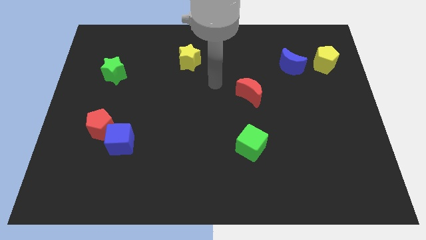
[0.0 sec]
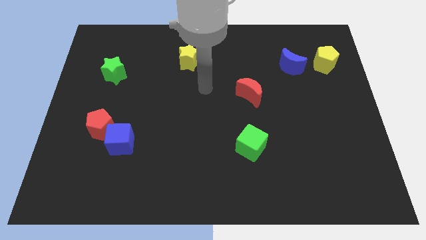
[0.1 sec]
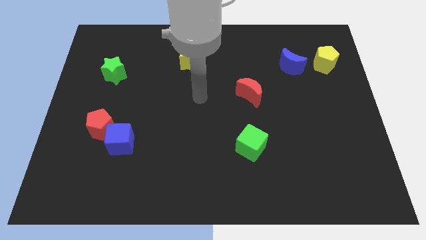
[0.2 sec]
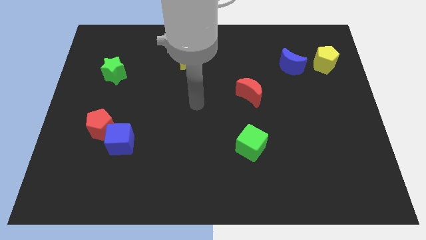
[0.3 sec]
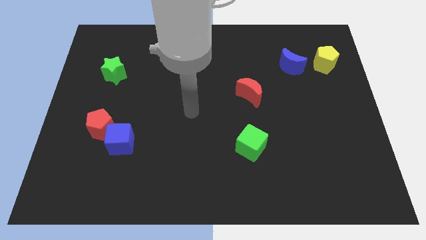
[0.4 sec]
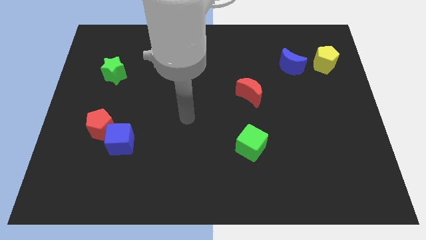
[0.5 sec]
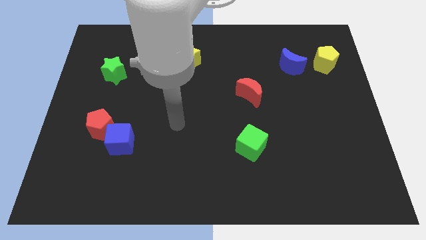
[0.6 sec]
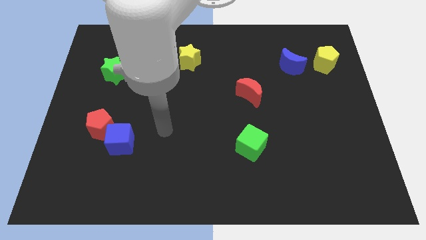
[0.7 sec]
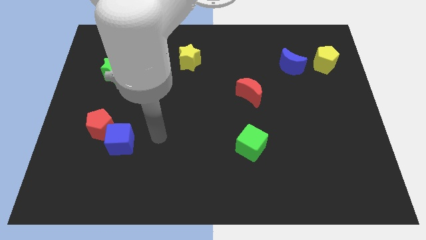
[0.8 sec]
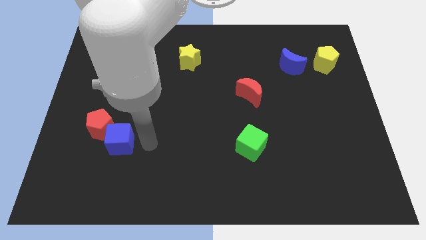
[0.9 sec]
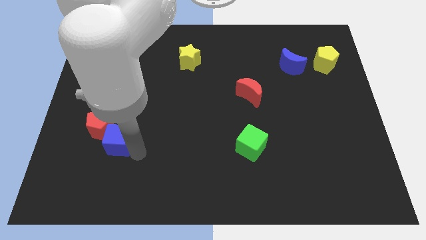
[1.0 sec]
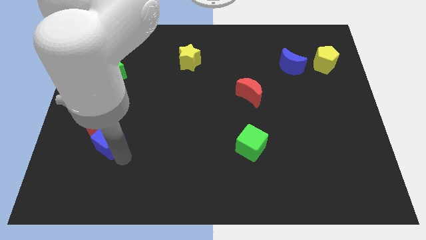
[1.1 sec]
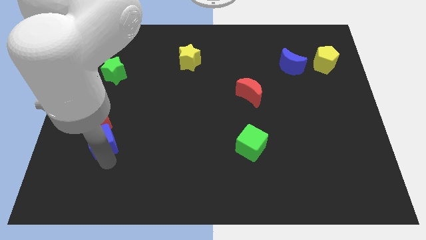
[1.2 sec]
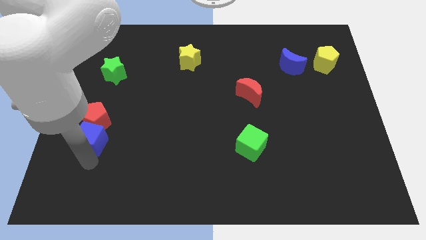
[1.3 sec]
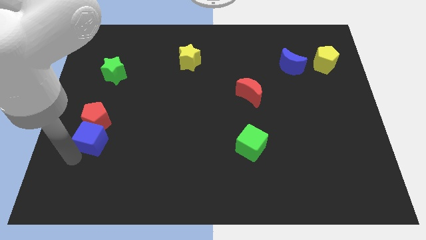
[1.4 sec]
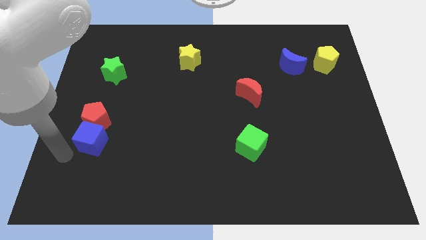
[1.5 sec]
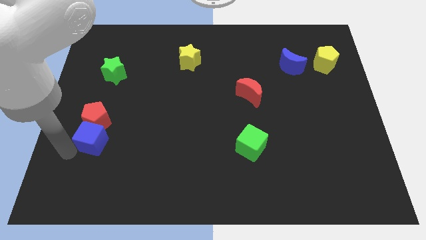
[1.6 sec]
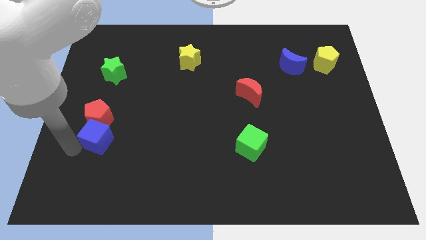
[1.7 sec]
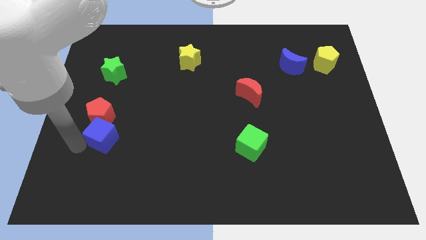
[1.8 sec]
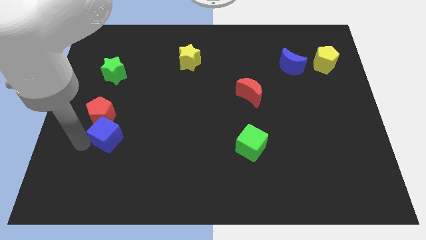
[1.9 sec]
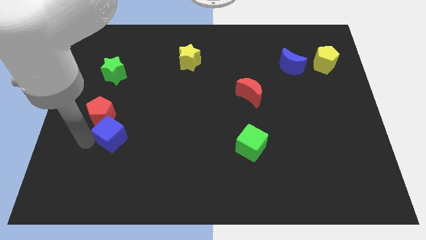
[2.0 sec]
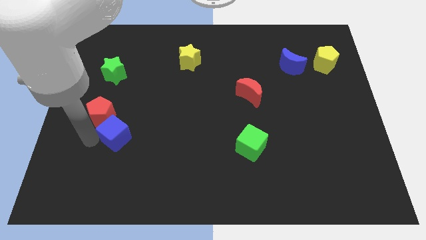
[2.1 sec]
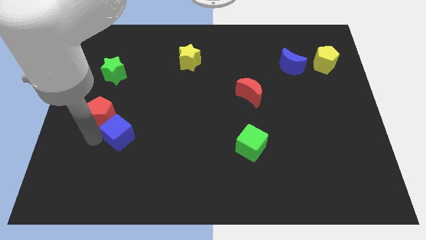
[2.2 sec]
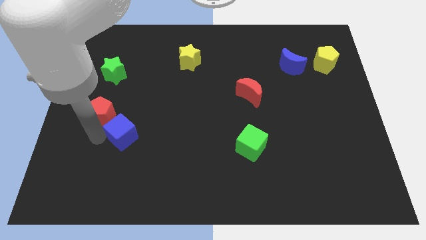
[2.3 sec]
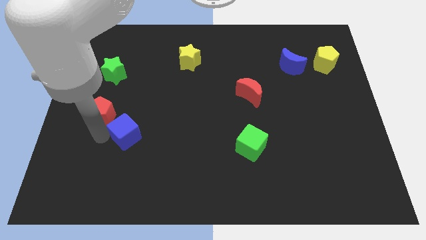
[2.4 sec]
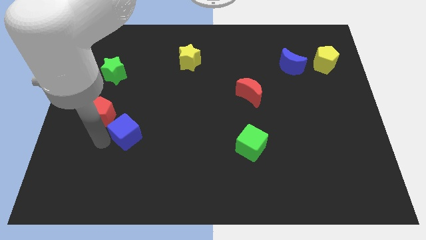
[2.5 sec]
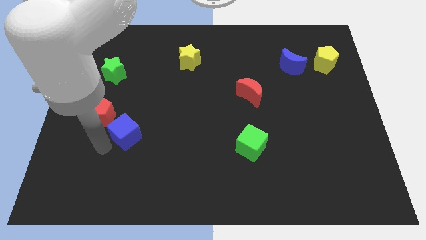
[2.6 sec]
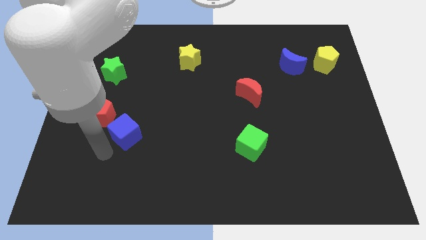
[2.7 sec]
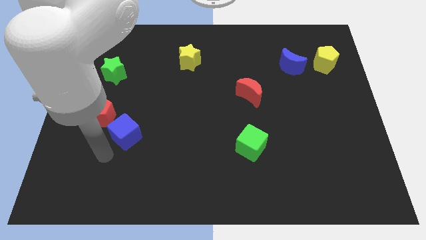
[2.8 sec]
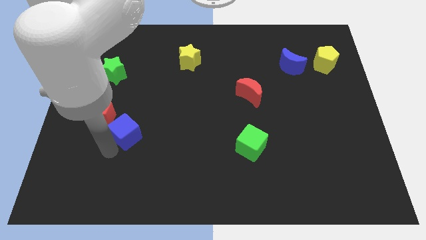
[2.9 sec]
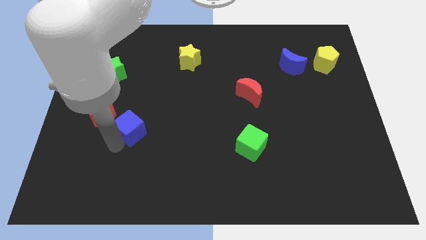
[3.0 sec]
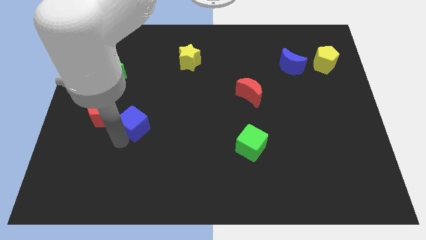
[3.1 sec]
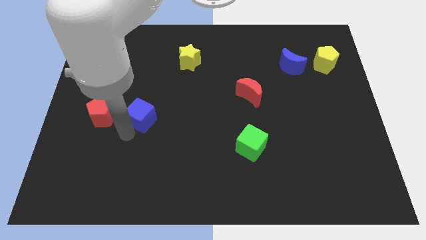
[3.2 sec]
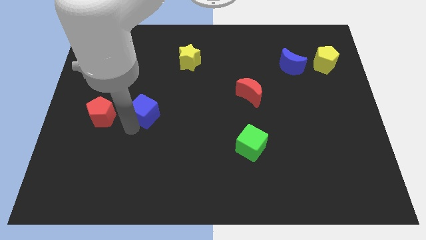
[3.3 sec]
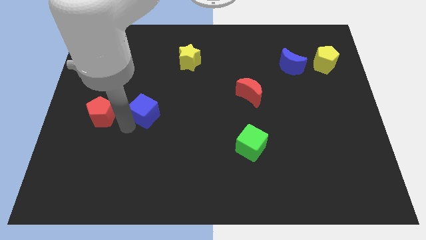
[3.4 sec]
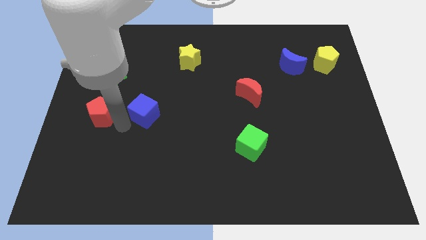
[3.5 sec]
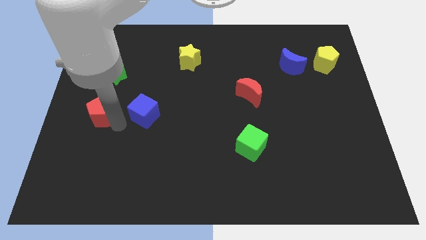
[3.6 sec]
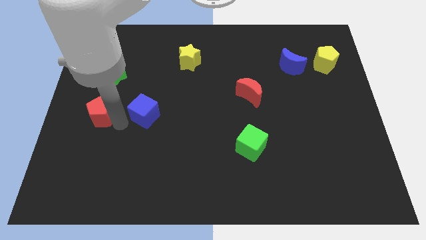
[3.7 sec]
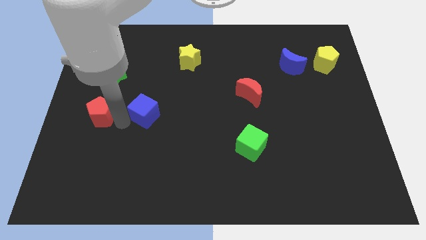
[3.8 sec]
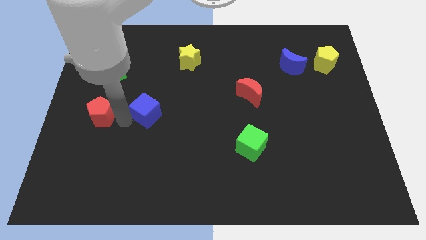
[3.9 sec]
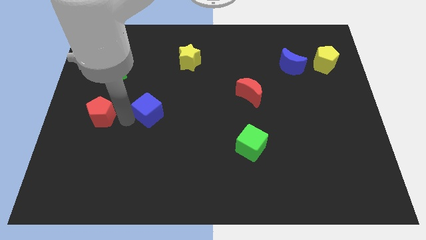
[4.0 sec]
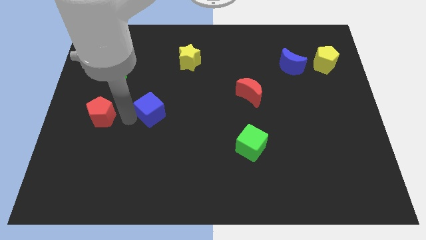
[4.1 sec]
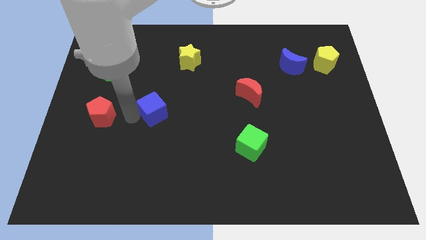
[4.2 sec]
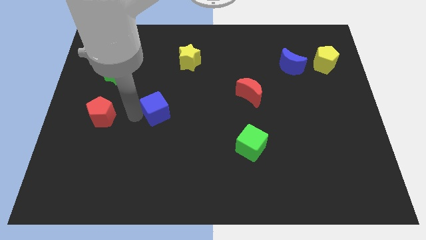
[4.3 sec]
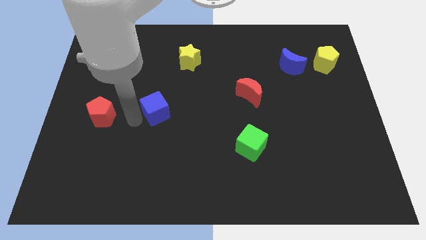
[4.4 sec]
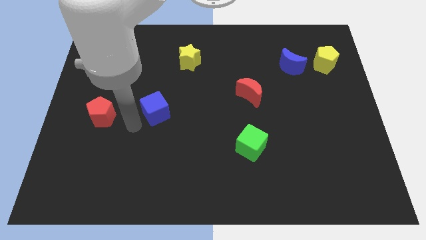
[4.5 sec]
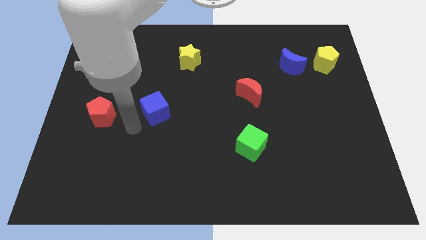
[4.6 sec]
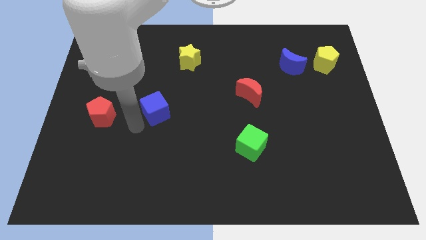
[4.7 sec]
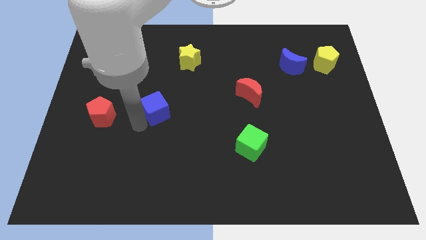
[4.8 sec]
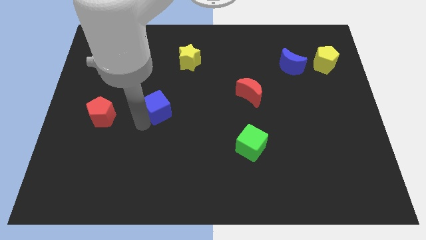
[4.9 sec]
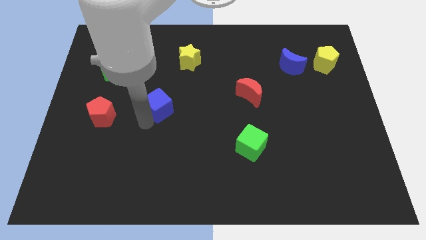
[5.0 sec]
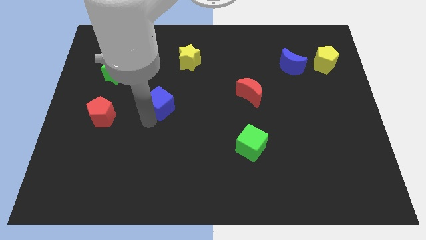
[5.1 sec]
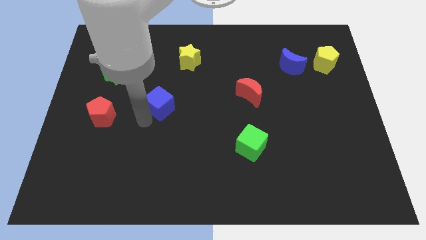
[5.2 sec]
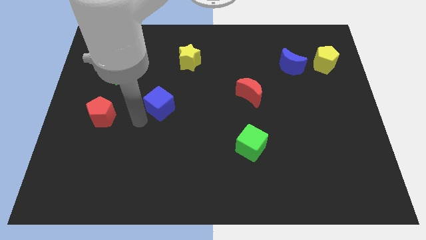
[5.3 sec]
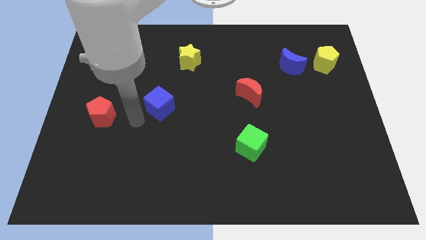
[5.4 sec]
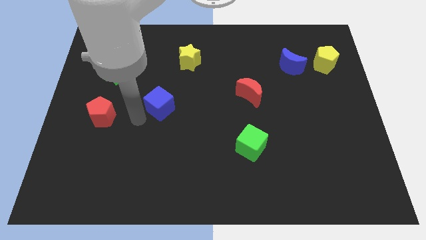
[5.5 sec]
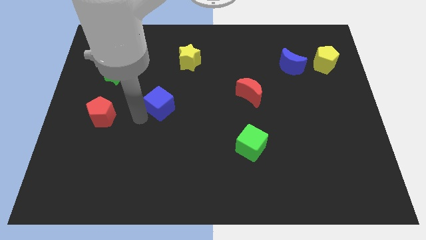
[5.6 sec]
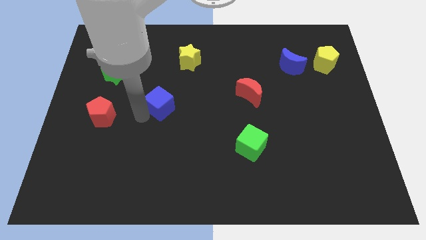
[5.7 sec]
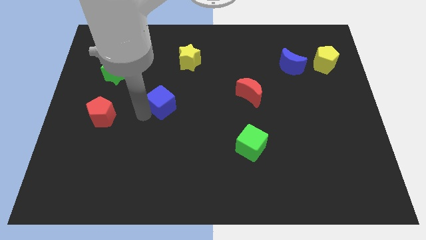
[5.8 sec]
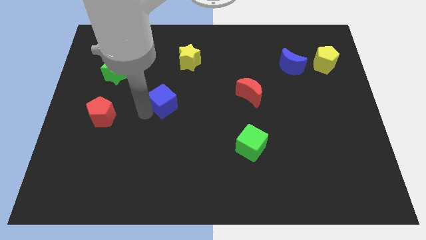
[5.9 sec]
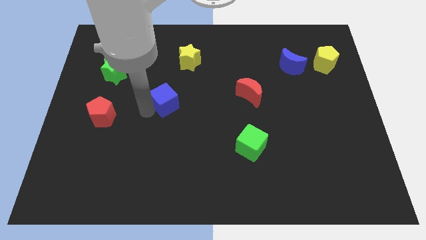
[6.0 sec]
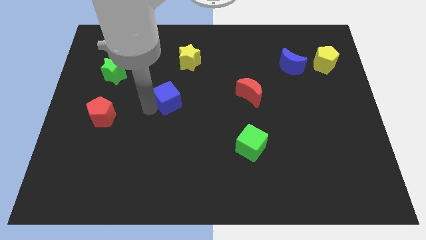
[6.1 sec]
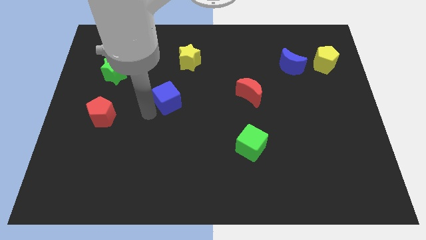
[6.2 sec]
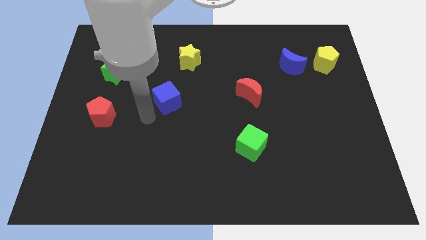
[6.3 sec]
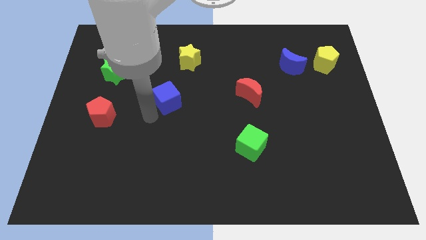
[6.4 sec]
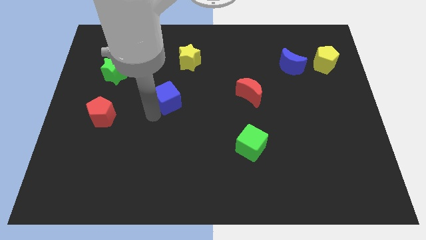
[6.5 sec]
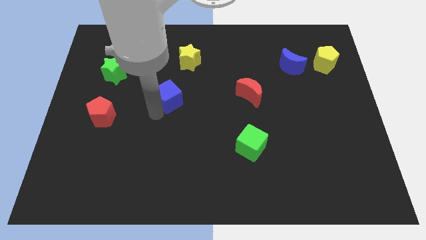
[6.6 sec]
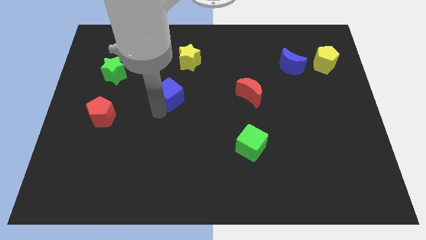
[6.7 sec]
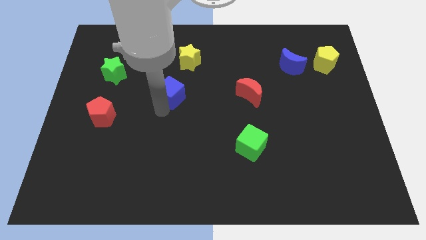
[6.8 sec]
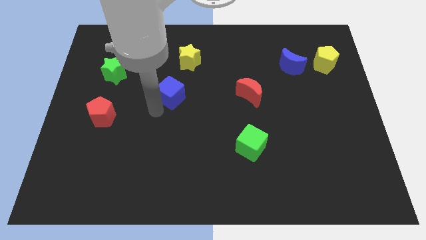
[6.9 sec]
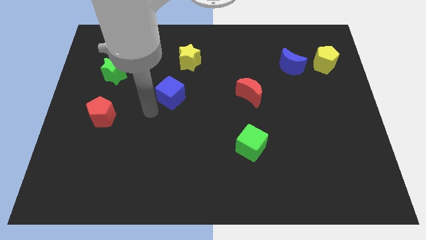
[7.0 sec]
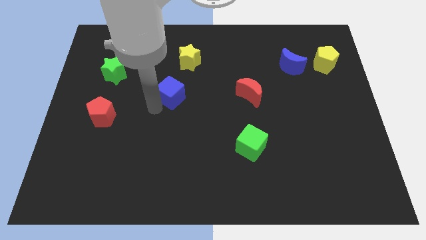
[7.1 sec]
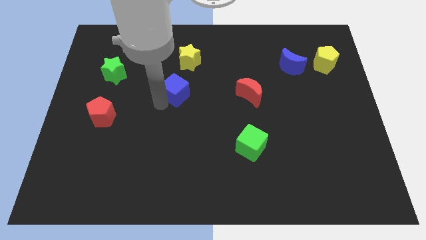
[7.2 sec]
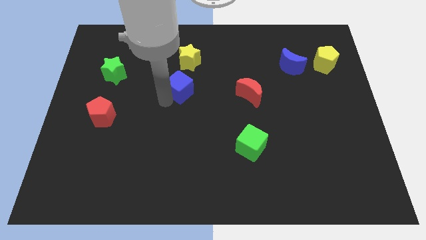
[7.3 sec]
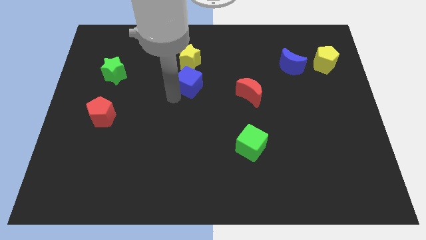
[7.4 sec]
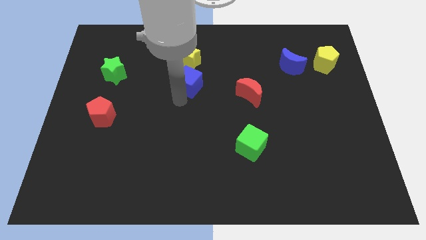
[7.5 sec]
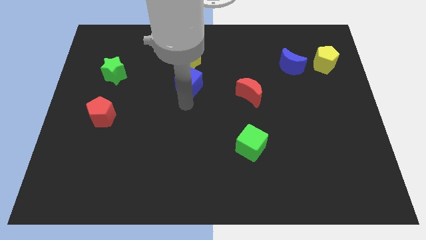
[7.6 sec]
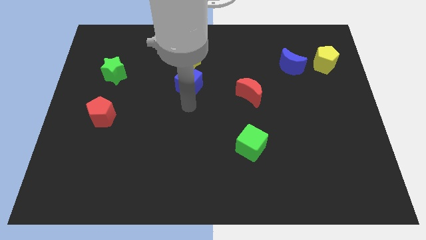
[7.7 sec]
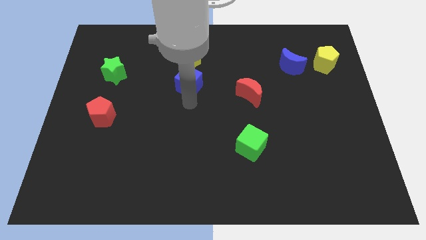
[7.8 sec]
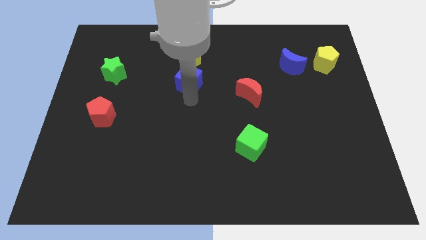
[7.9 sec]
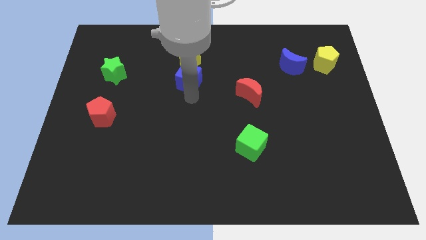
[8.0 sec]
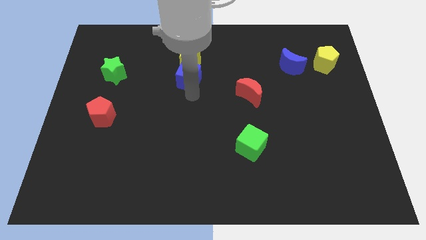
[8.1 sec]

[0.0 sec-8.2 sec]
move the blue cube close to the yellow star
